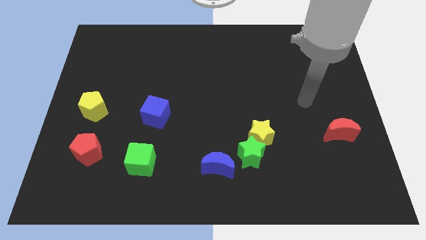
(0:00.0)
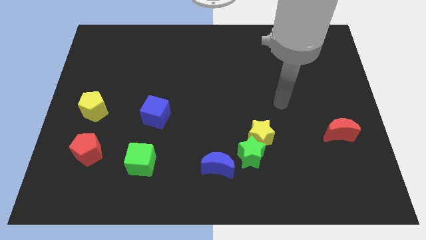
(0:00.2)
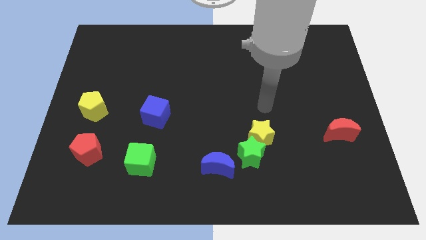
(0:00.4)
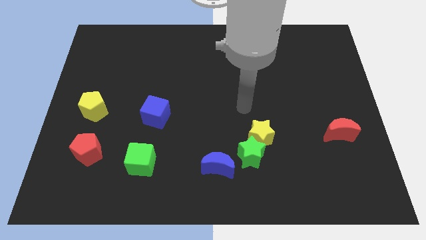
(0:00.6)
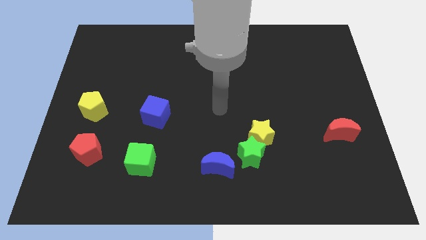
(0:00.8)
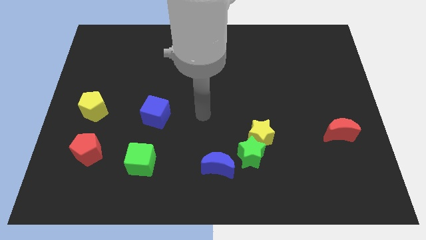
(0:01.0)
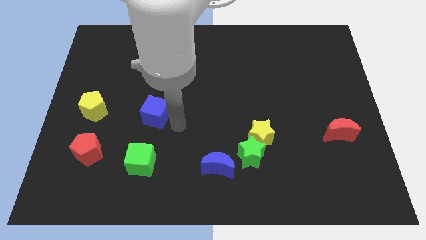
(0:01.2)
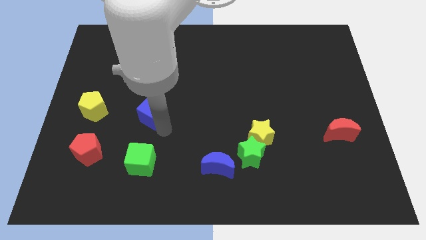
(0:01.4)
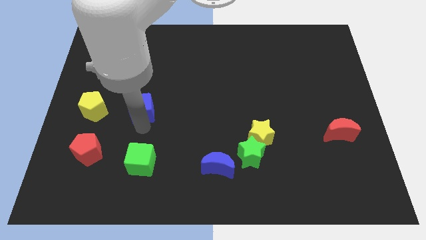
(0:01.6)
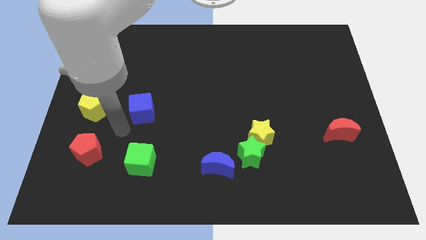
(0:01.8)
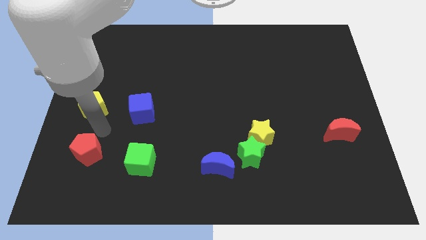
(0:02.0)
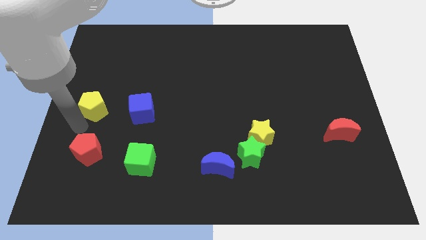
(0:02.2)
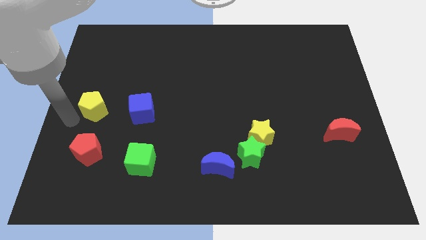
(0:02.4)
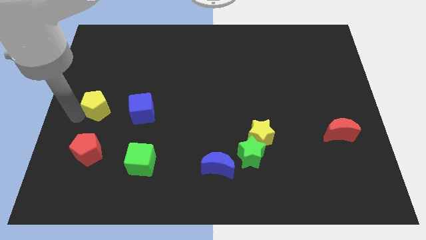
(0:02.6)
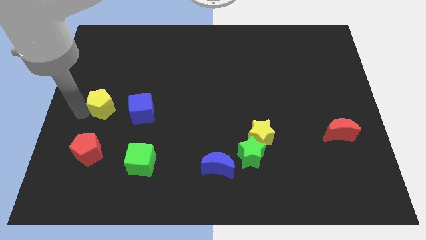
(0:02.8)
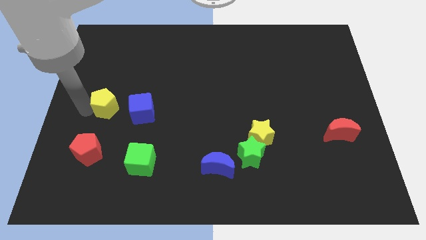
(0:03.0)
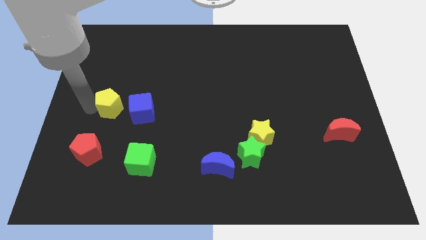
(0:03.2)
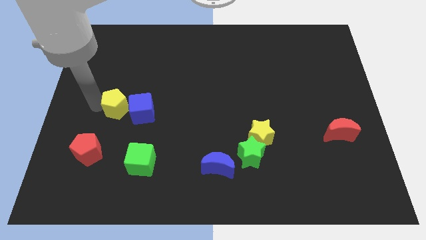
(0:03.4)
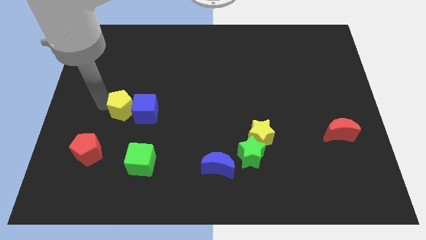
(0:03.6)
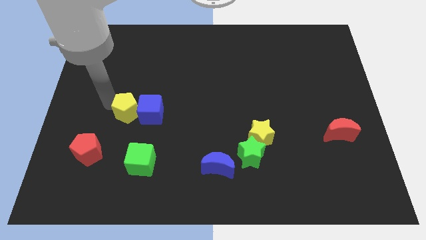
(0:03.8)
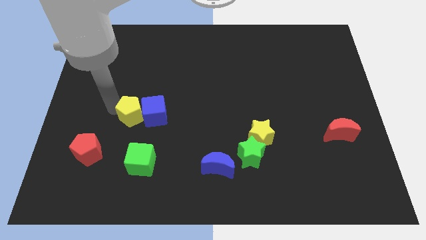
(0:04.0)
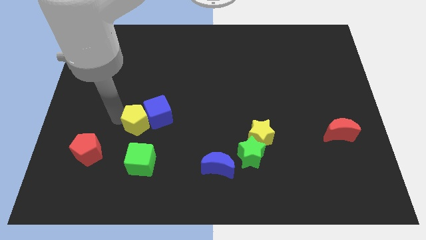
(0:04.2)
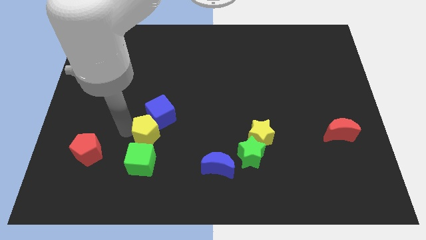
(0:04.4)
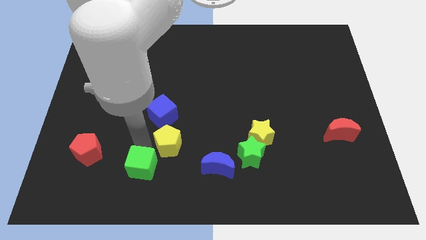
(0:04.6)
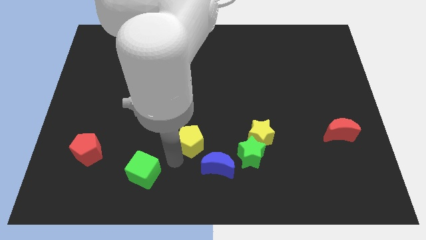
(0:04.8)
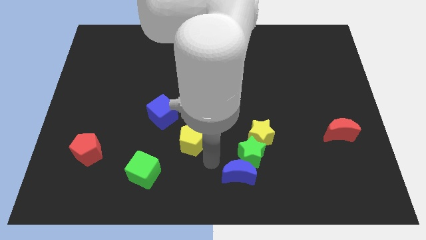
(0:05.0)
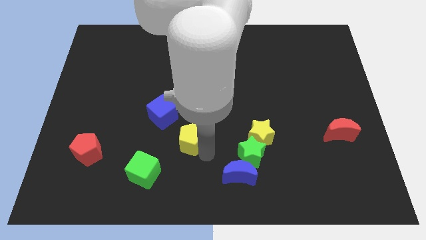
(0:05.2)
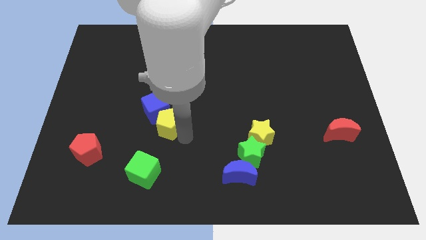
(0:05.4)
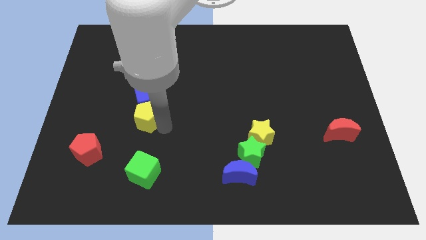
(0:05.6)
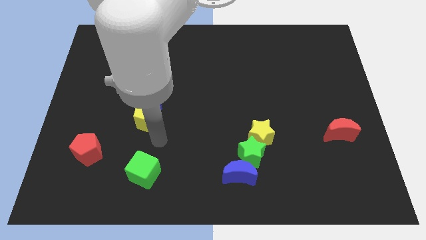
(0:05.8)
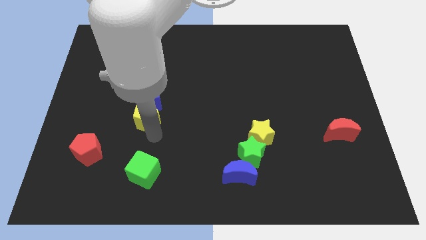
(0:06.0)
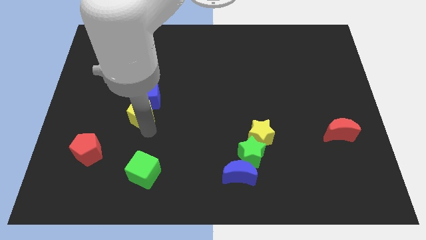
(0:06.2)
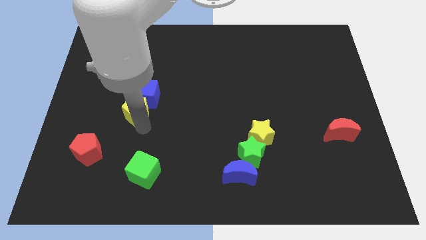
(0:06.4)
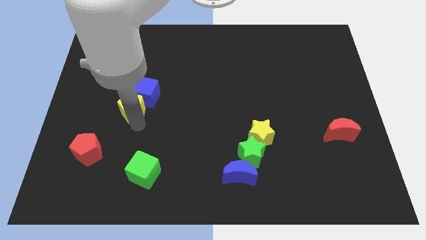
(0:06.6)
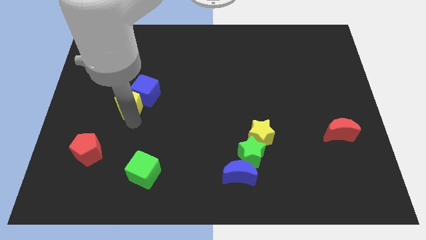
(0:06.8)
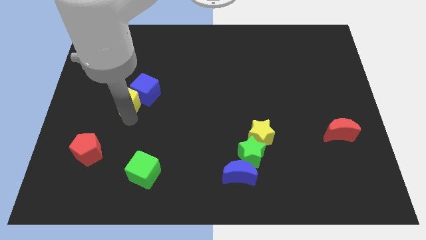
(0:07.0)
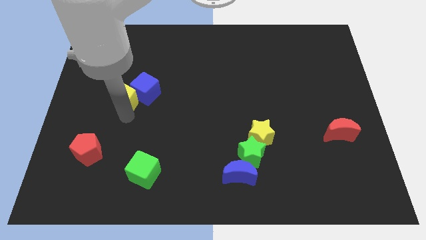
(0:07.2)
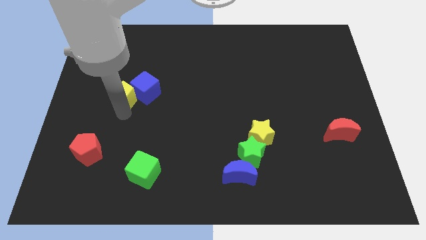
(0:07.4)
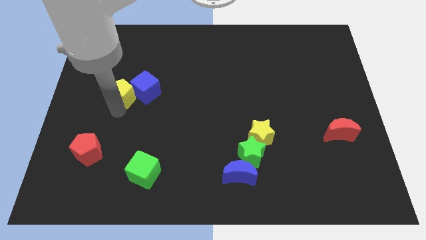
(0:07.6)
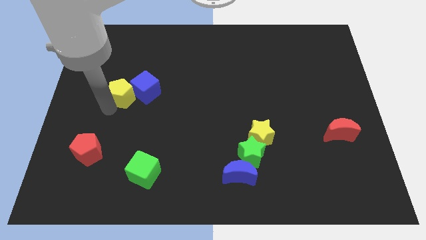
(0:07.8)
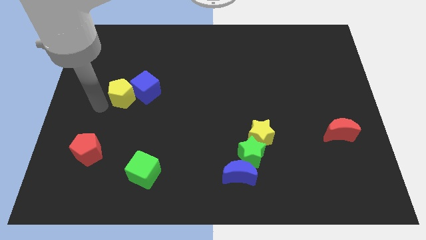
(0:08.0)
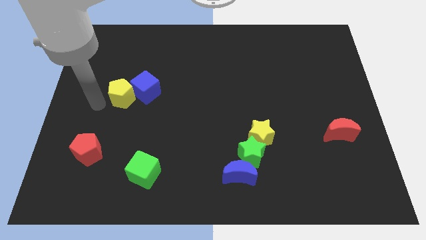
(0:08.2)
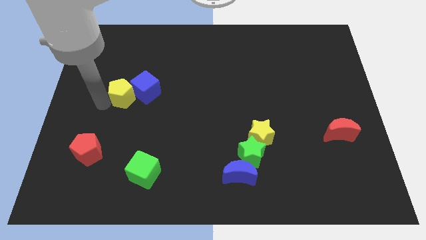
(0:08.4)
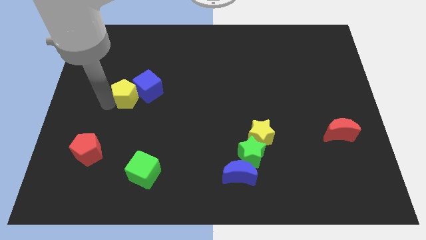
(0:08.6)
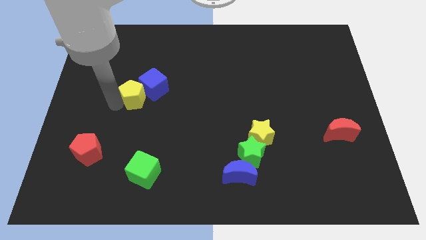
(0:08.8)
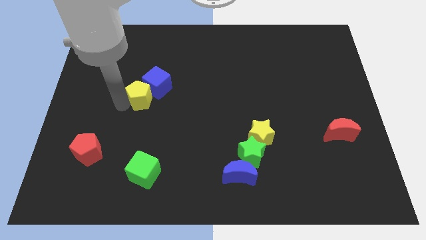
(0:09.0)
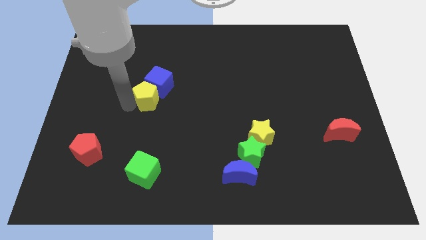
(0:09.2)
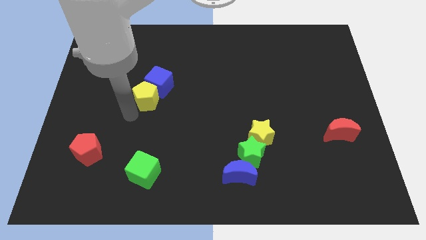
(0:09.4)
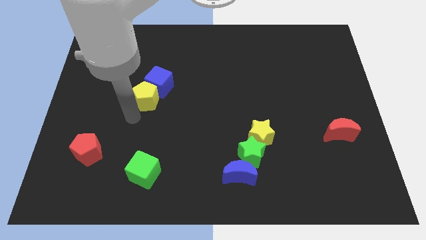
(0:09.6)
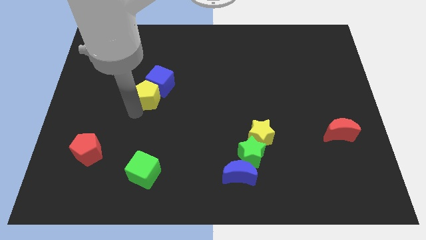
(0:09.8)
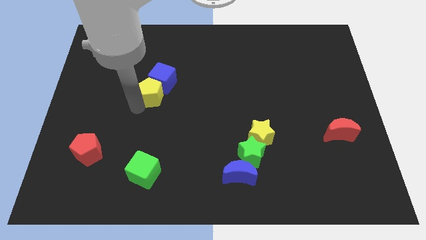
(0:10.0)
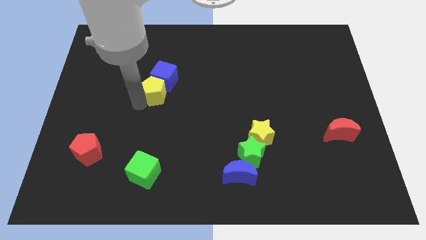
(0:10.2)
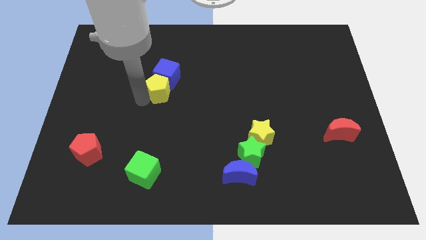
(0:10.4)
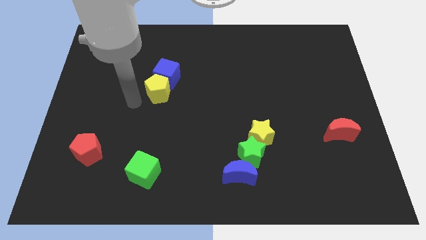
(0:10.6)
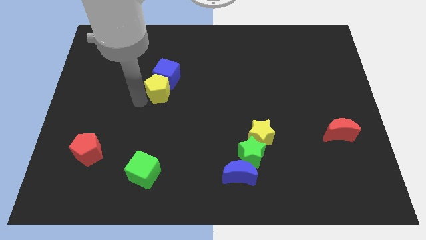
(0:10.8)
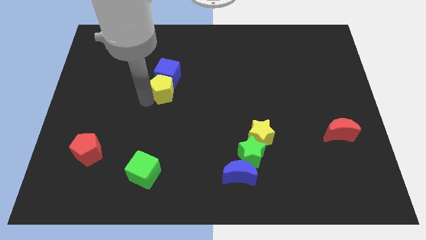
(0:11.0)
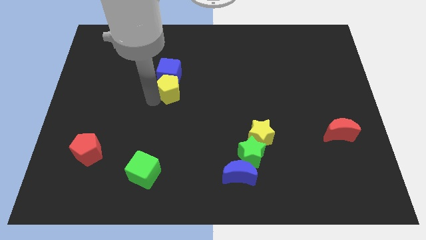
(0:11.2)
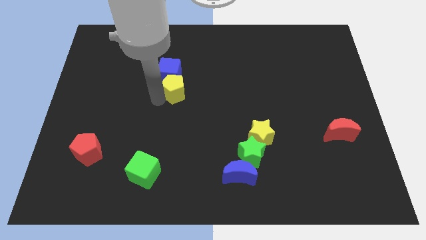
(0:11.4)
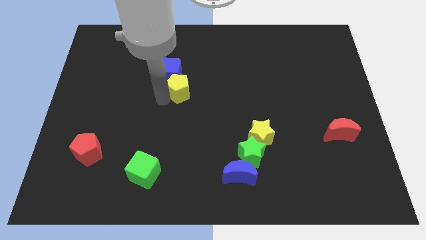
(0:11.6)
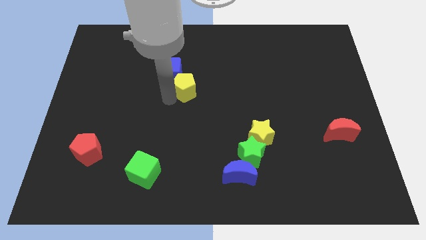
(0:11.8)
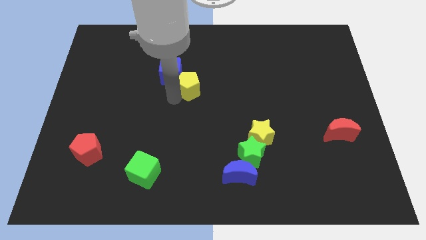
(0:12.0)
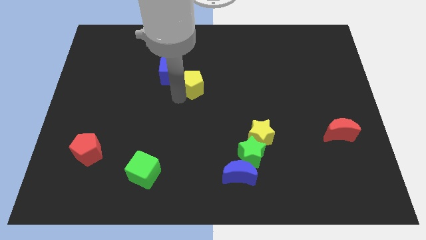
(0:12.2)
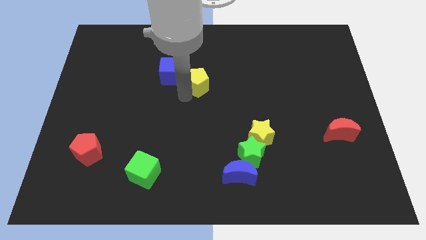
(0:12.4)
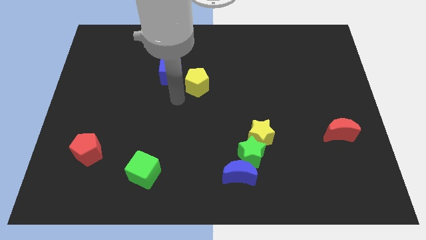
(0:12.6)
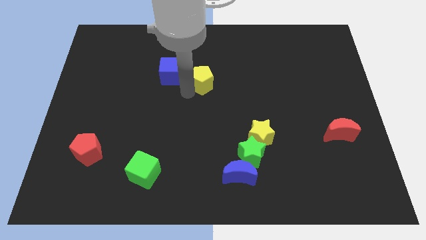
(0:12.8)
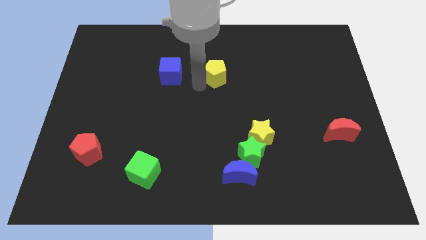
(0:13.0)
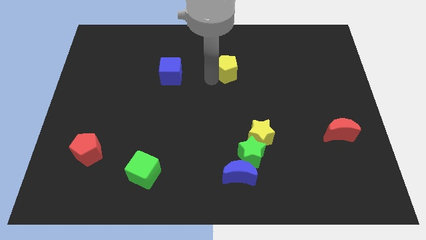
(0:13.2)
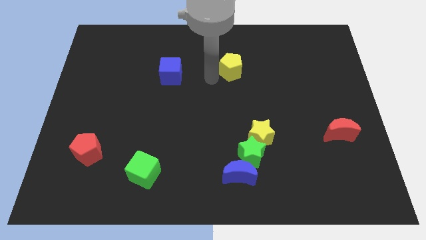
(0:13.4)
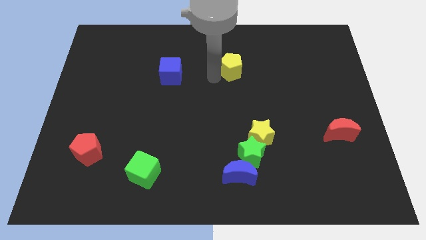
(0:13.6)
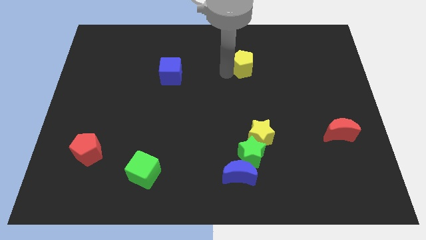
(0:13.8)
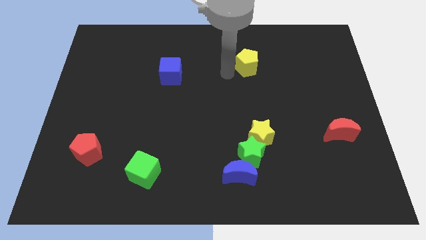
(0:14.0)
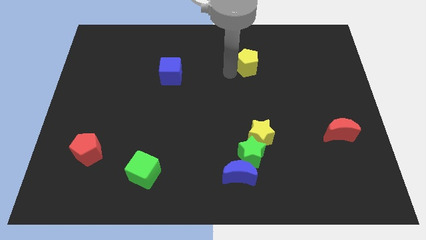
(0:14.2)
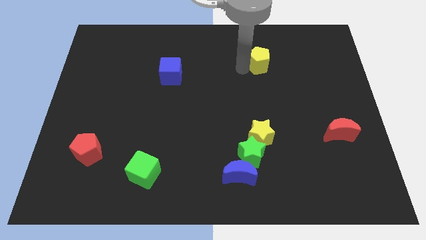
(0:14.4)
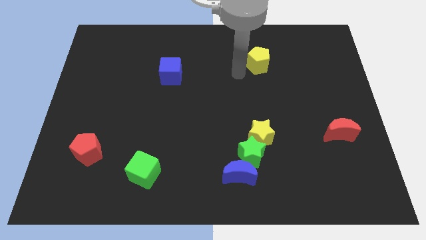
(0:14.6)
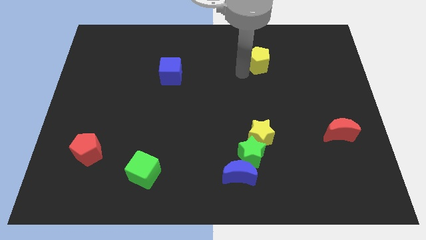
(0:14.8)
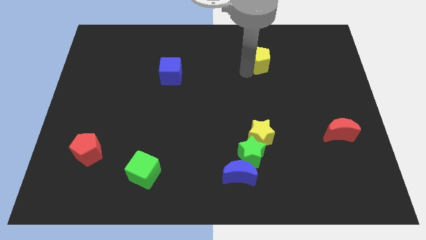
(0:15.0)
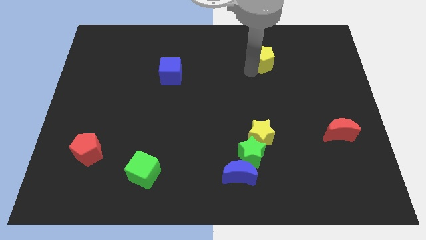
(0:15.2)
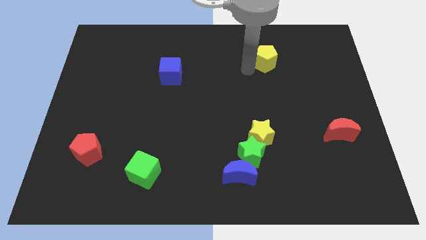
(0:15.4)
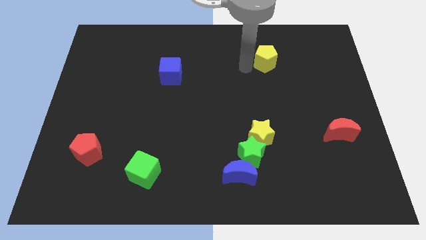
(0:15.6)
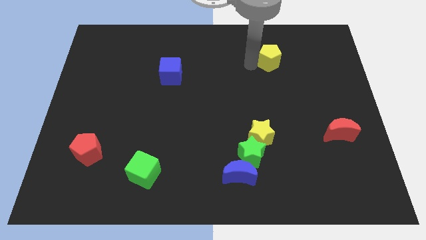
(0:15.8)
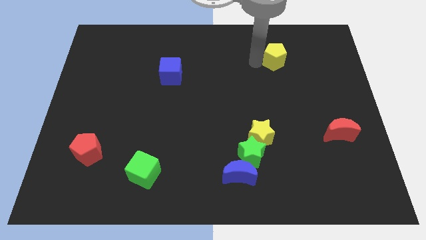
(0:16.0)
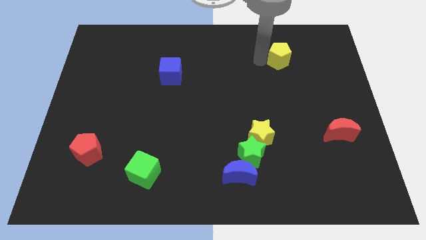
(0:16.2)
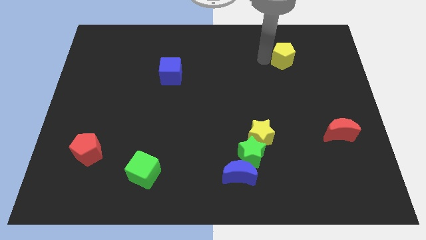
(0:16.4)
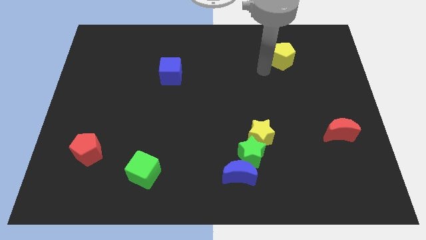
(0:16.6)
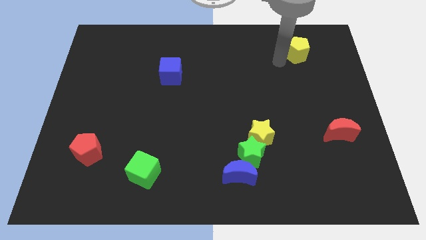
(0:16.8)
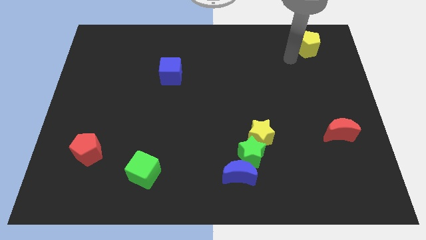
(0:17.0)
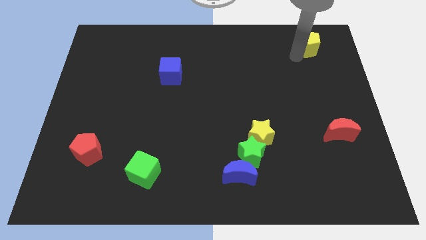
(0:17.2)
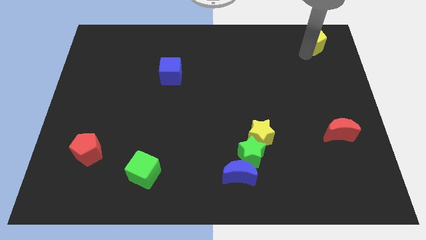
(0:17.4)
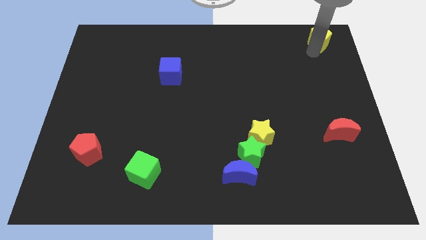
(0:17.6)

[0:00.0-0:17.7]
move the yellow pentagon to the top right
